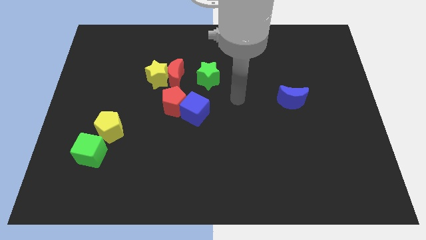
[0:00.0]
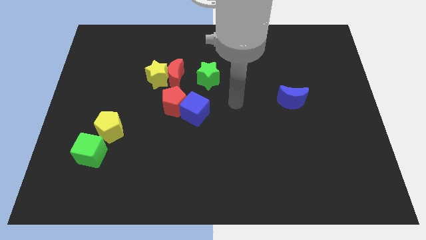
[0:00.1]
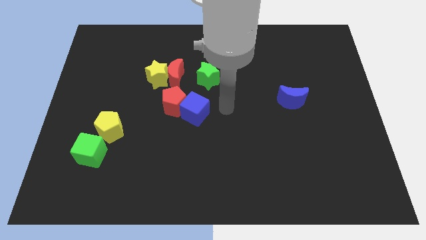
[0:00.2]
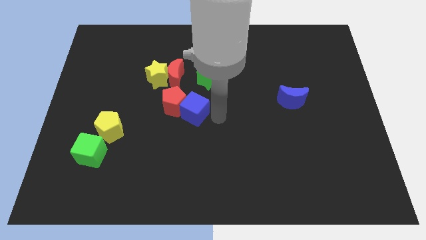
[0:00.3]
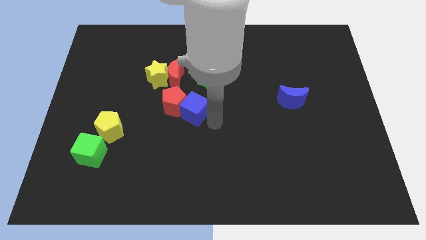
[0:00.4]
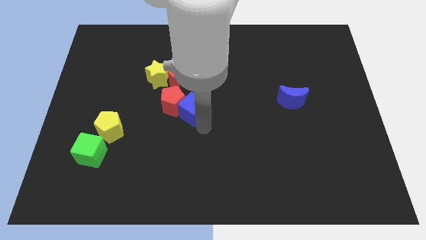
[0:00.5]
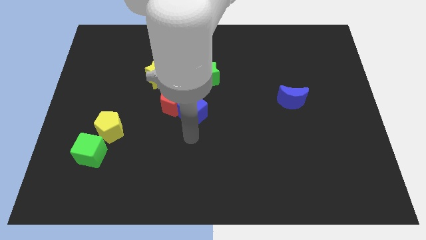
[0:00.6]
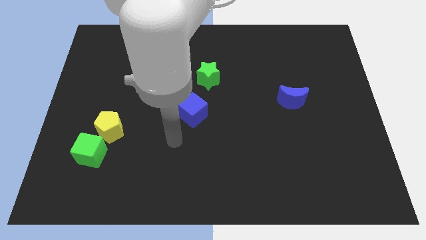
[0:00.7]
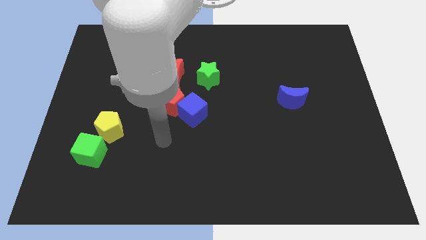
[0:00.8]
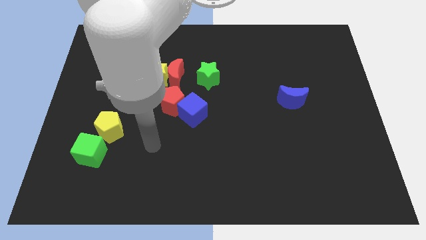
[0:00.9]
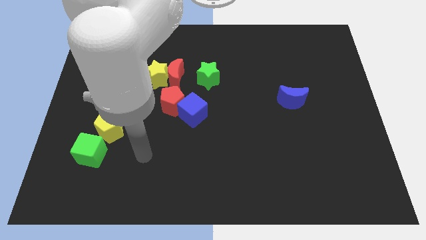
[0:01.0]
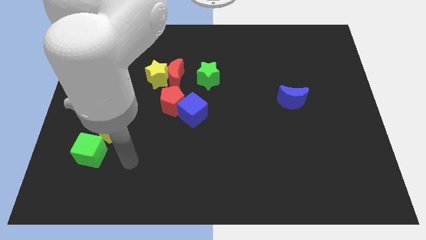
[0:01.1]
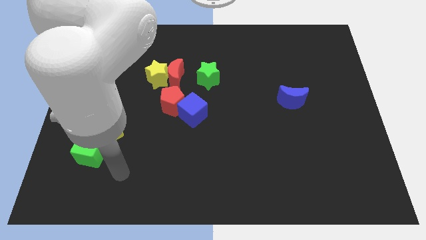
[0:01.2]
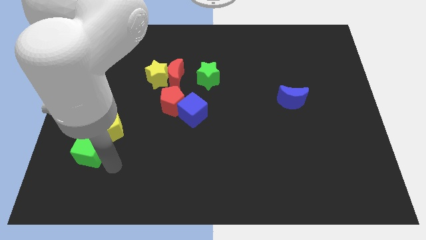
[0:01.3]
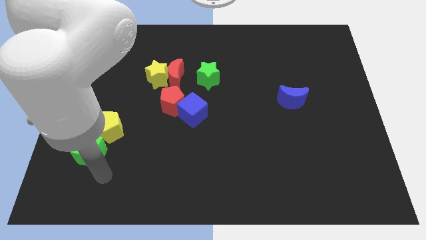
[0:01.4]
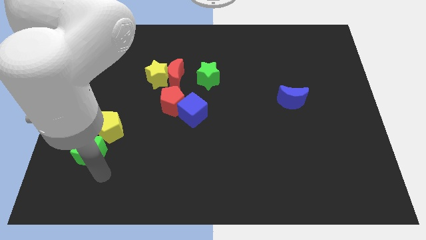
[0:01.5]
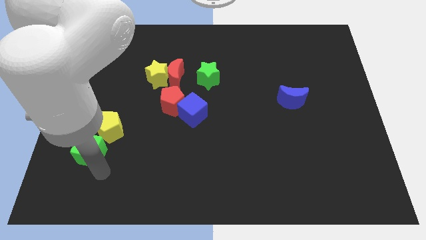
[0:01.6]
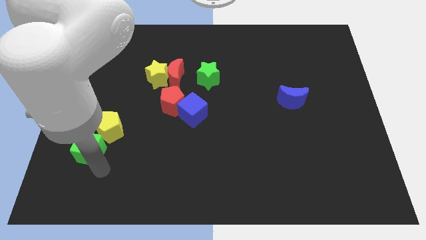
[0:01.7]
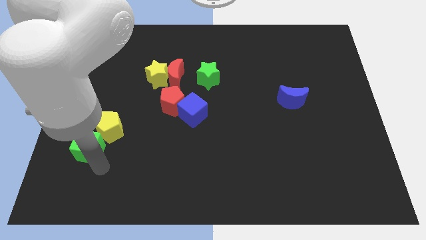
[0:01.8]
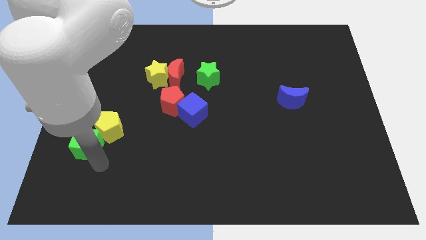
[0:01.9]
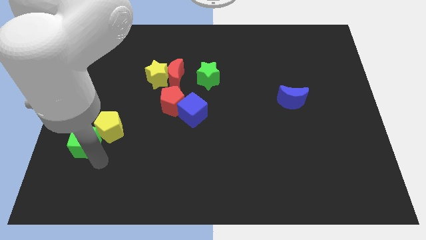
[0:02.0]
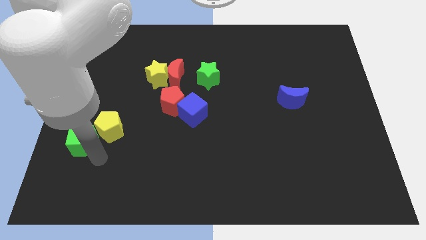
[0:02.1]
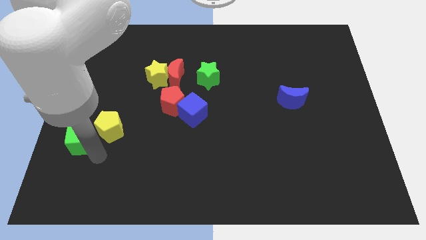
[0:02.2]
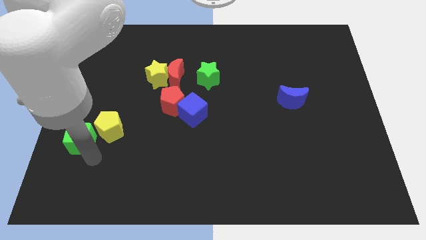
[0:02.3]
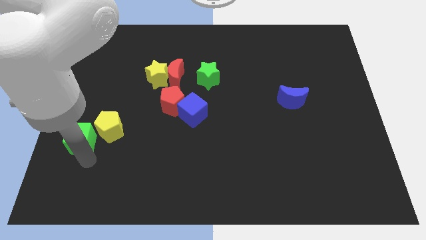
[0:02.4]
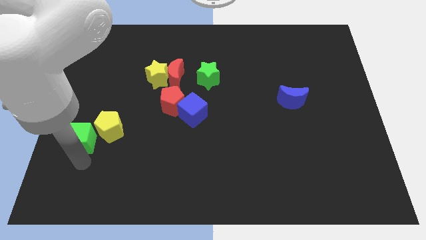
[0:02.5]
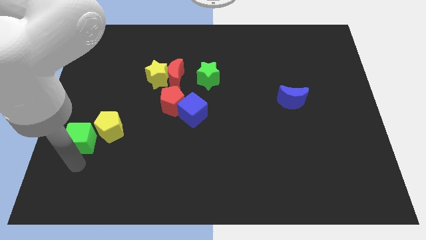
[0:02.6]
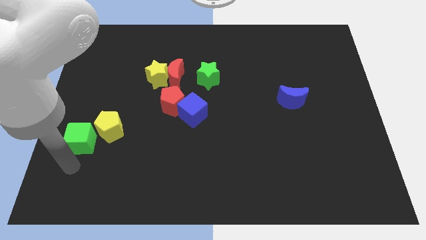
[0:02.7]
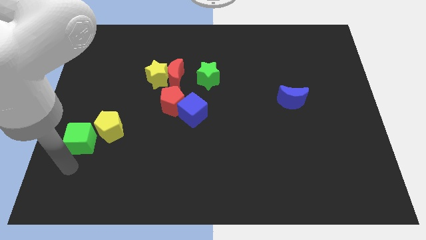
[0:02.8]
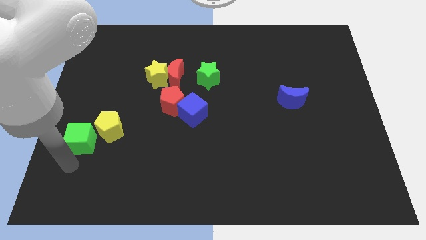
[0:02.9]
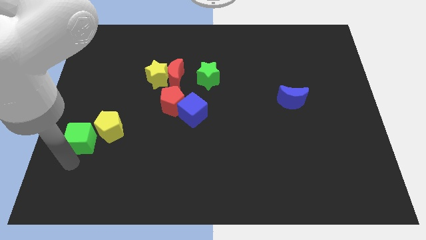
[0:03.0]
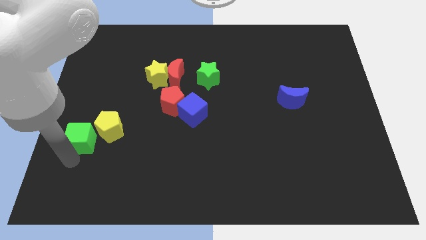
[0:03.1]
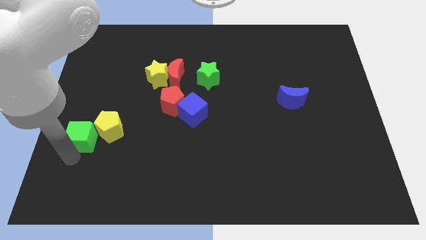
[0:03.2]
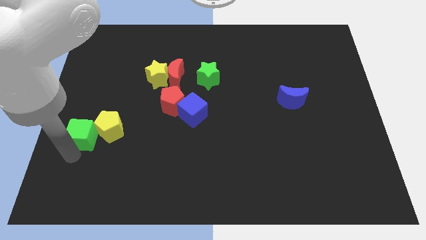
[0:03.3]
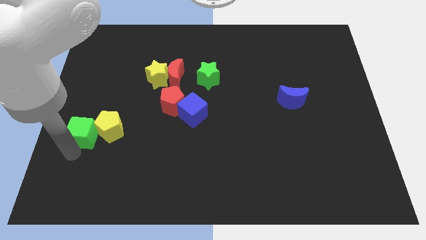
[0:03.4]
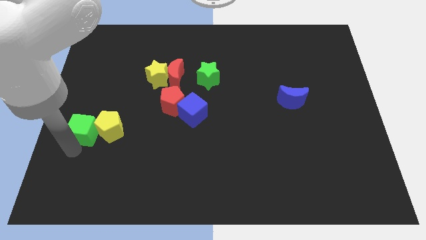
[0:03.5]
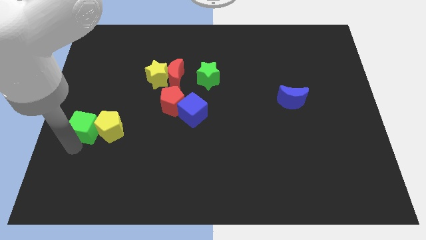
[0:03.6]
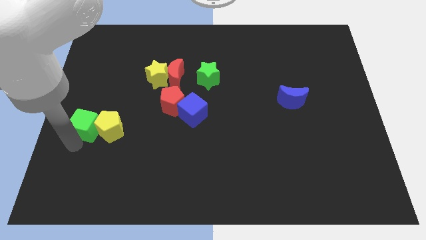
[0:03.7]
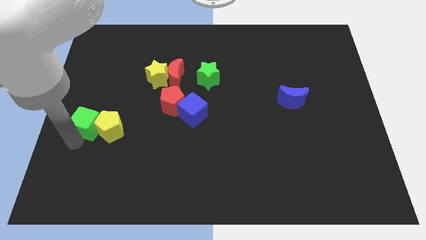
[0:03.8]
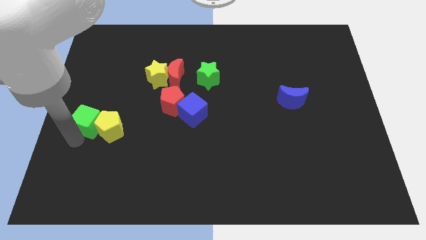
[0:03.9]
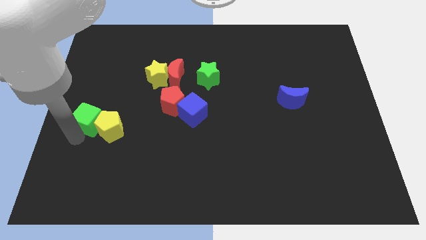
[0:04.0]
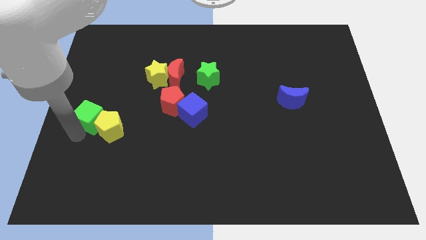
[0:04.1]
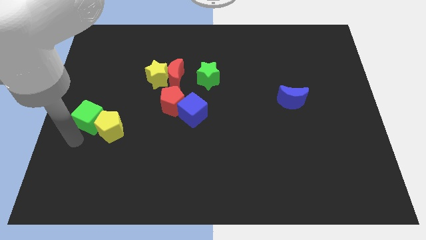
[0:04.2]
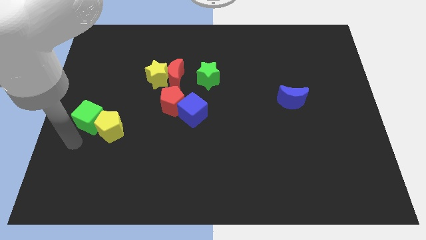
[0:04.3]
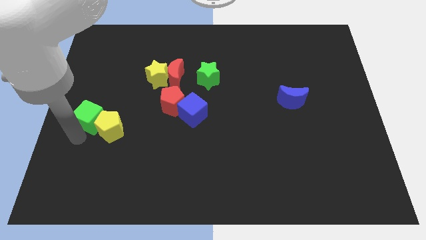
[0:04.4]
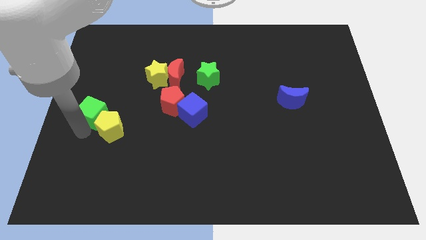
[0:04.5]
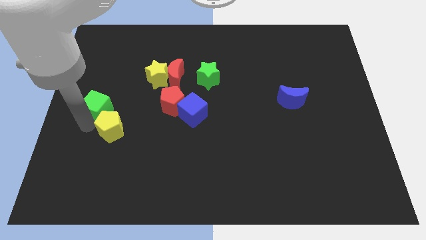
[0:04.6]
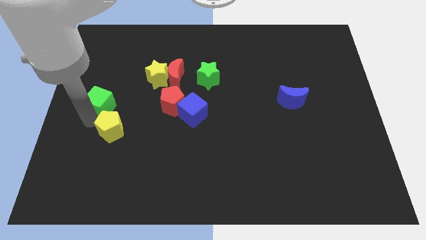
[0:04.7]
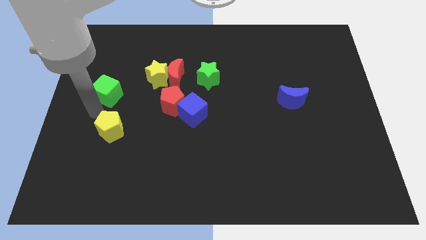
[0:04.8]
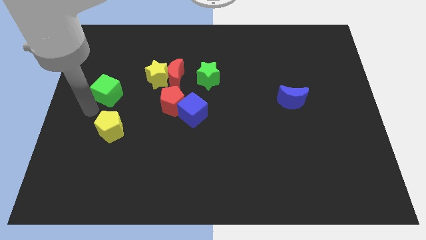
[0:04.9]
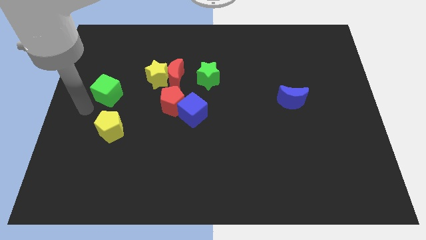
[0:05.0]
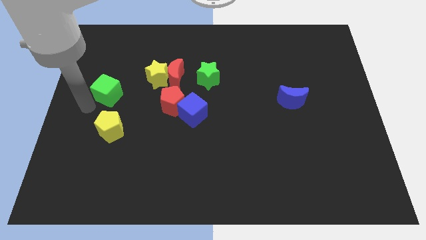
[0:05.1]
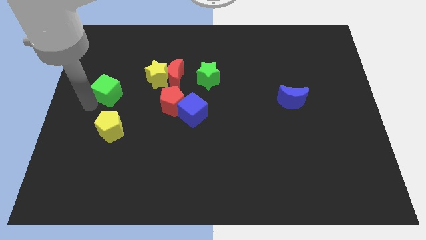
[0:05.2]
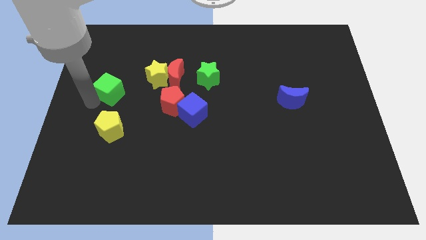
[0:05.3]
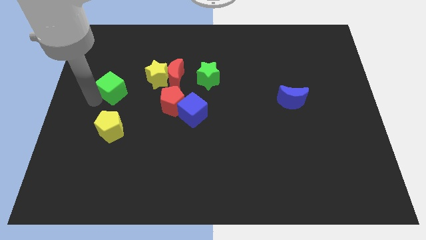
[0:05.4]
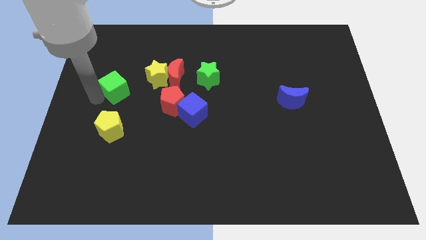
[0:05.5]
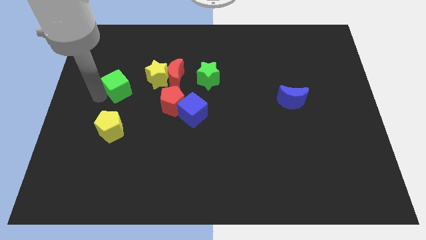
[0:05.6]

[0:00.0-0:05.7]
move the green cube left of the red moon

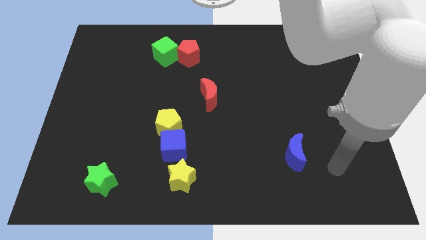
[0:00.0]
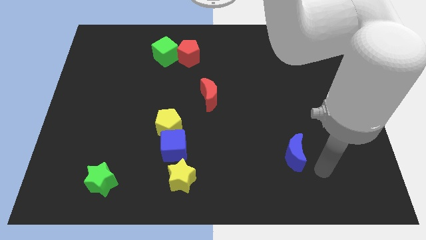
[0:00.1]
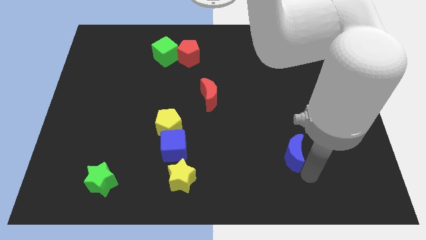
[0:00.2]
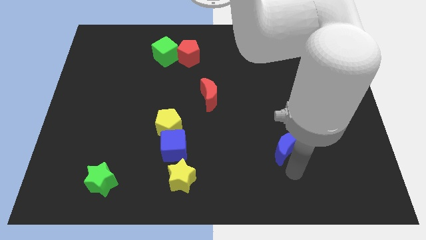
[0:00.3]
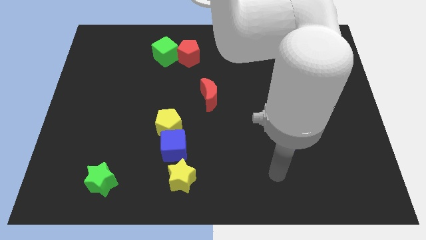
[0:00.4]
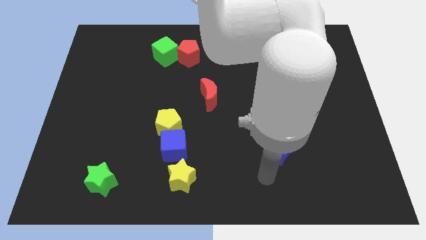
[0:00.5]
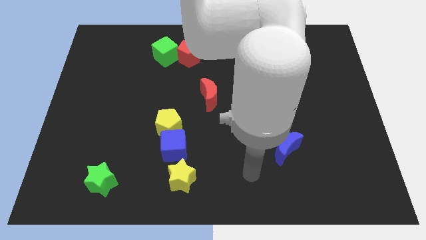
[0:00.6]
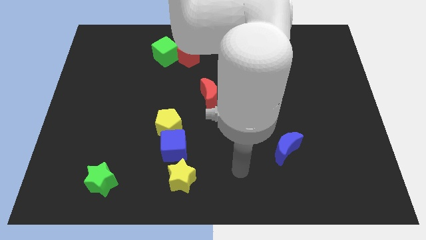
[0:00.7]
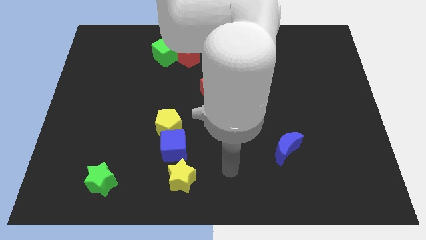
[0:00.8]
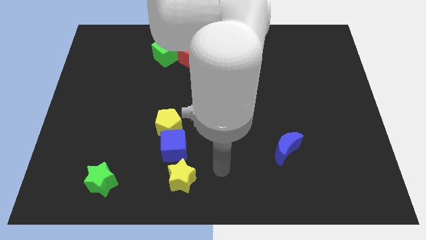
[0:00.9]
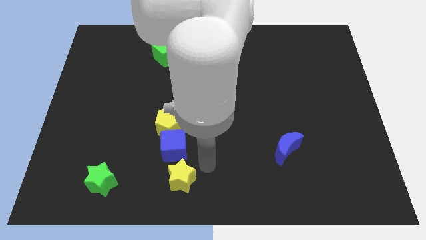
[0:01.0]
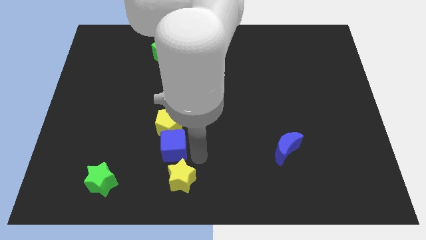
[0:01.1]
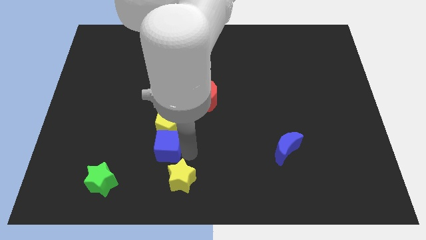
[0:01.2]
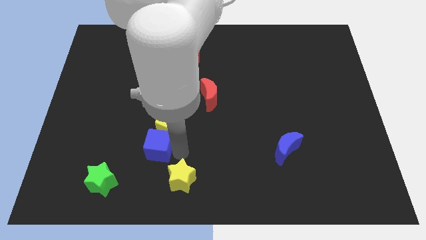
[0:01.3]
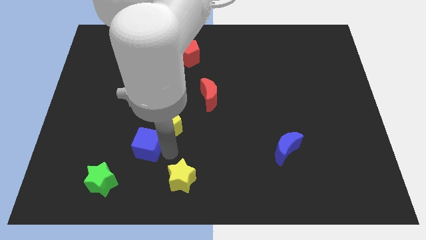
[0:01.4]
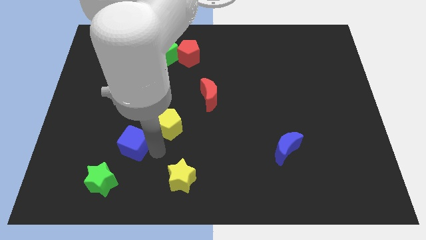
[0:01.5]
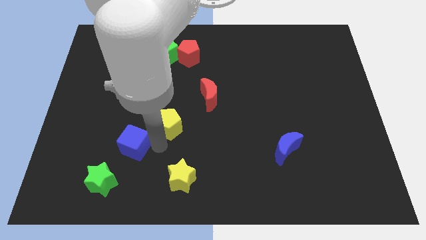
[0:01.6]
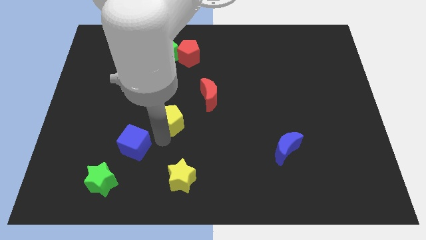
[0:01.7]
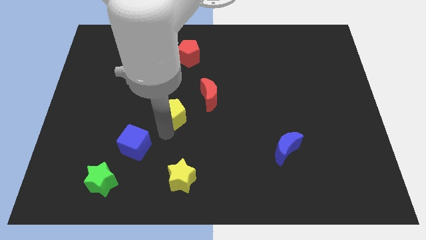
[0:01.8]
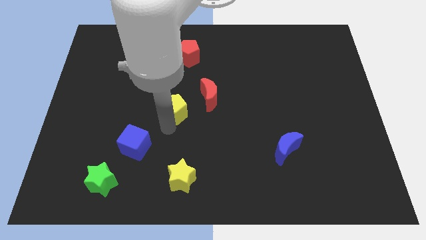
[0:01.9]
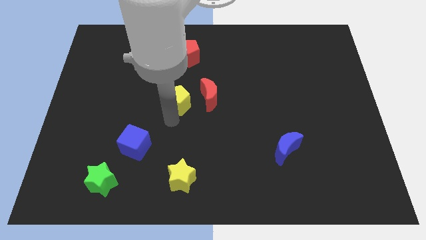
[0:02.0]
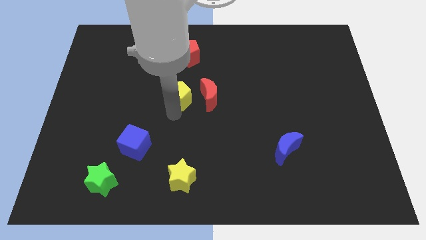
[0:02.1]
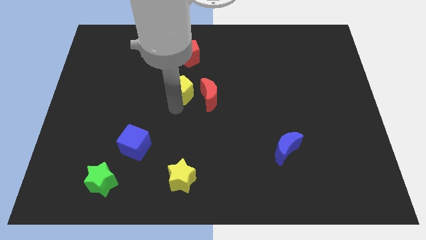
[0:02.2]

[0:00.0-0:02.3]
push the yellow pentagon to the top left side of the red moon
